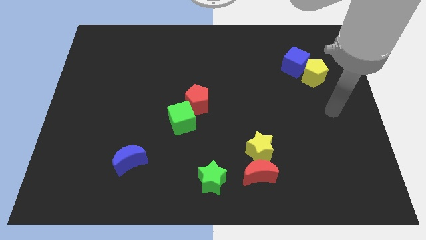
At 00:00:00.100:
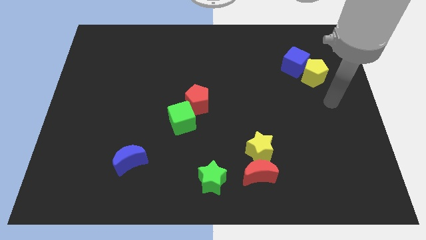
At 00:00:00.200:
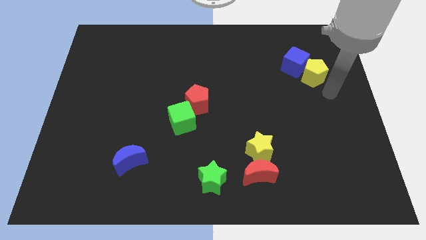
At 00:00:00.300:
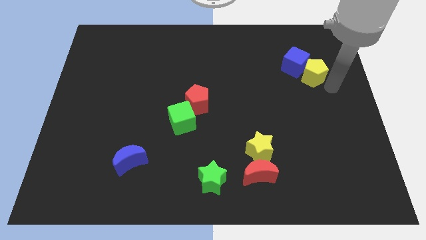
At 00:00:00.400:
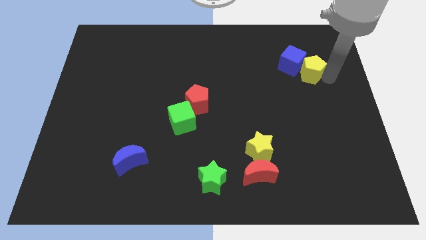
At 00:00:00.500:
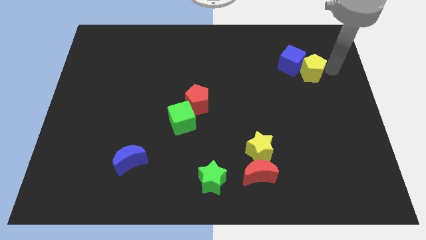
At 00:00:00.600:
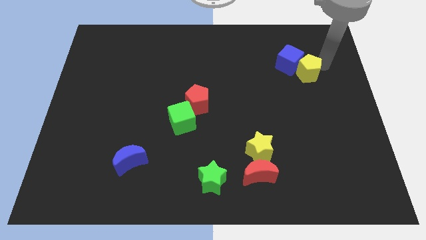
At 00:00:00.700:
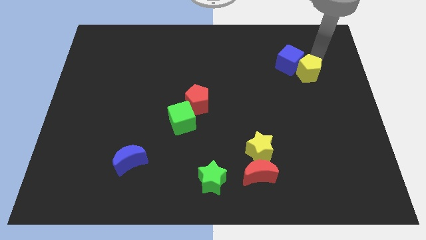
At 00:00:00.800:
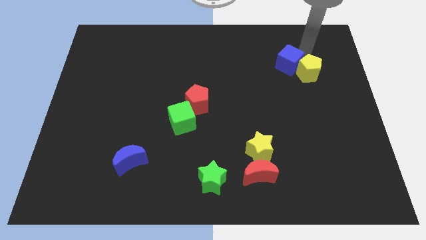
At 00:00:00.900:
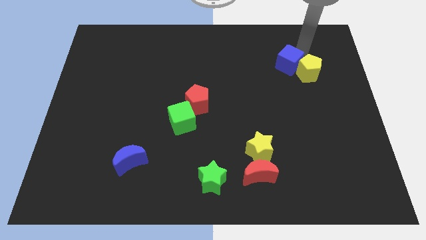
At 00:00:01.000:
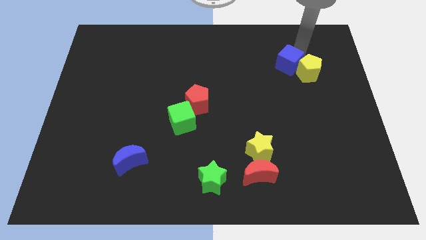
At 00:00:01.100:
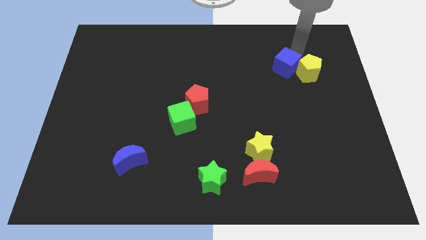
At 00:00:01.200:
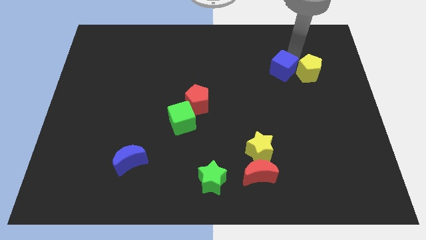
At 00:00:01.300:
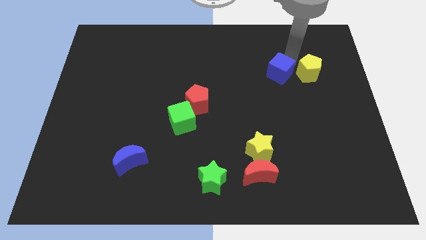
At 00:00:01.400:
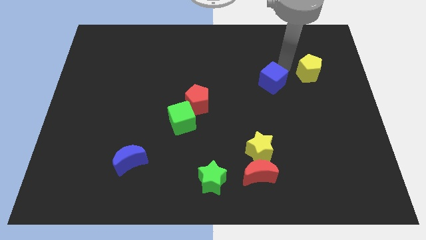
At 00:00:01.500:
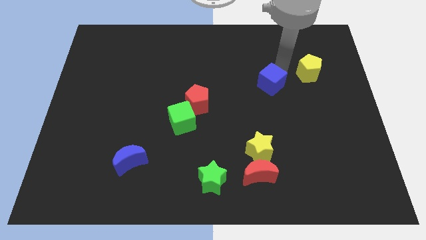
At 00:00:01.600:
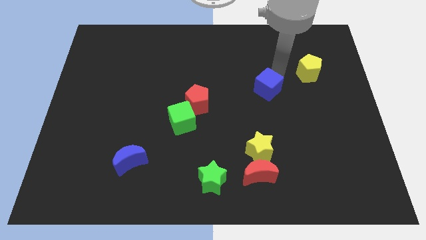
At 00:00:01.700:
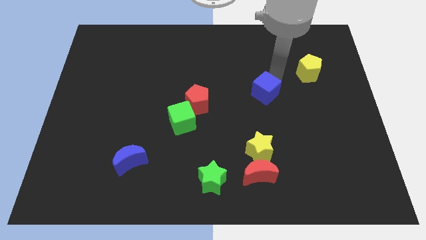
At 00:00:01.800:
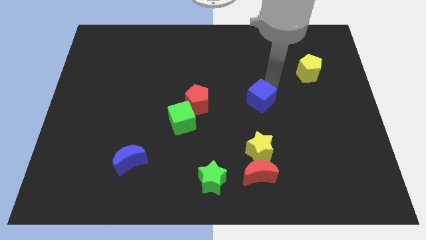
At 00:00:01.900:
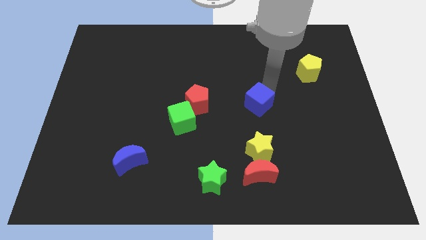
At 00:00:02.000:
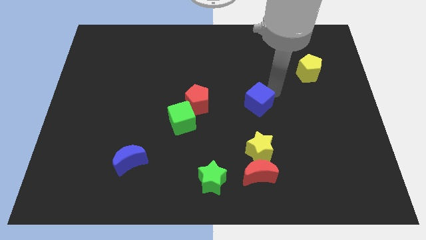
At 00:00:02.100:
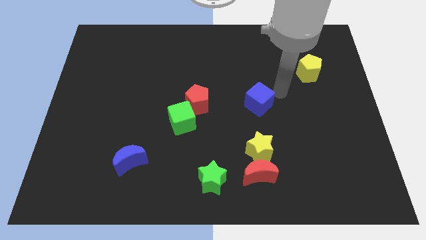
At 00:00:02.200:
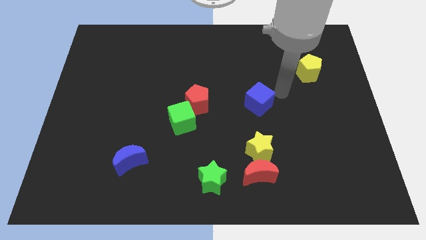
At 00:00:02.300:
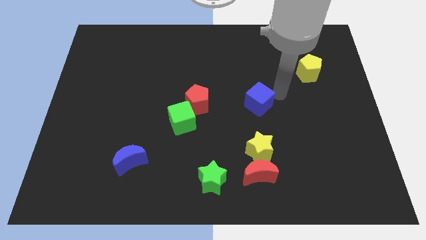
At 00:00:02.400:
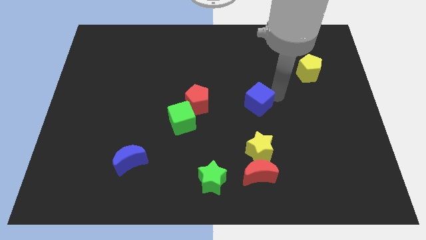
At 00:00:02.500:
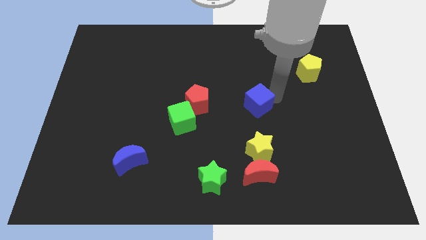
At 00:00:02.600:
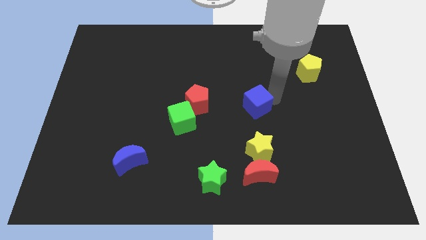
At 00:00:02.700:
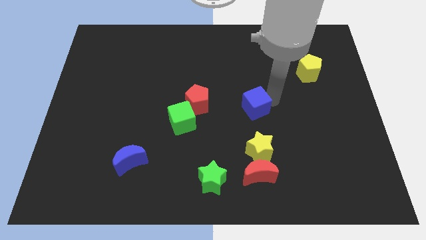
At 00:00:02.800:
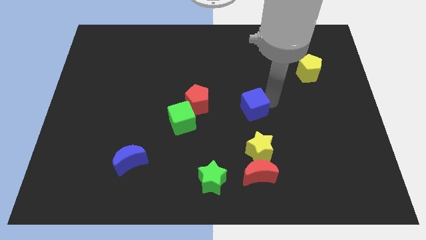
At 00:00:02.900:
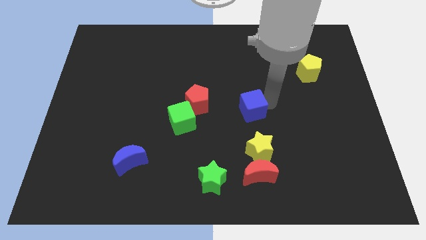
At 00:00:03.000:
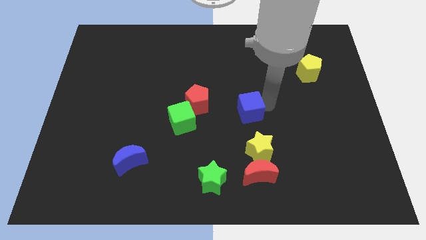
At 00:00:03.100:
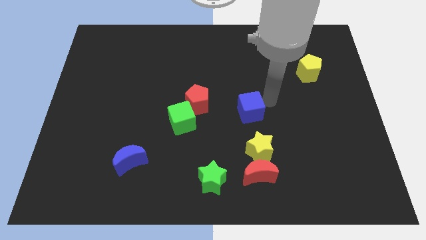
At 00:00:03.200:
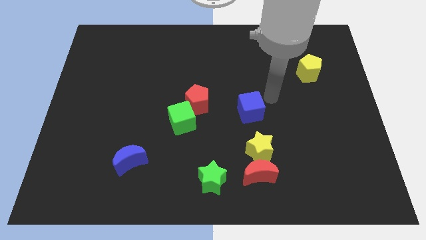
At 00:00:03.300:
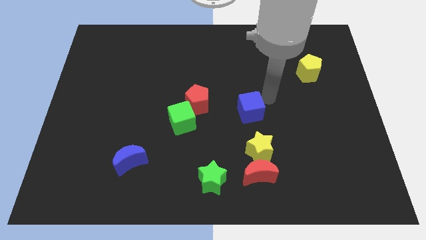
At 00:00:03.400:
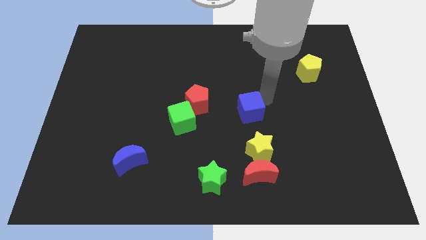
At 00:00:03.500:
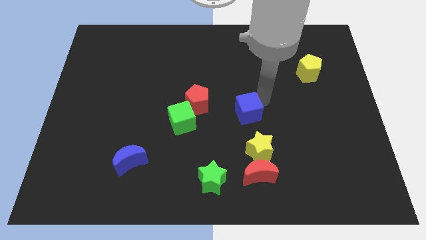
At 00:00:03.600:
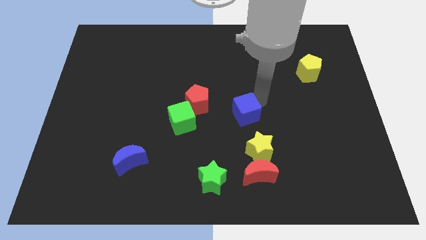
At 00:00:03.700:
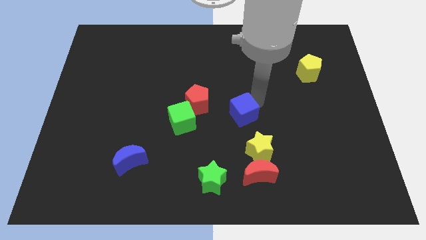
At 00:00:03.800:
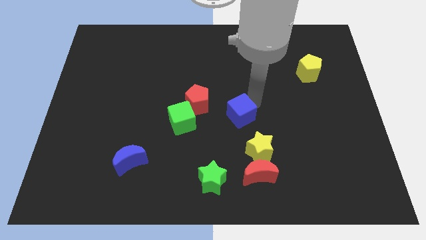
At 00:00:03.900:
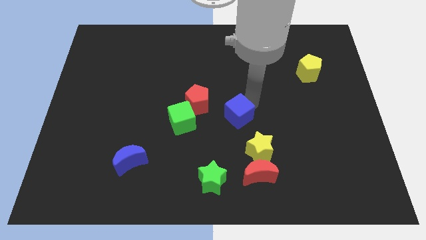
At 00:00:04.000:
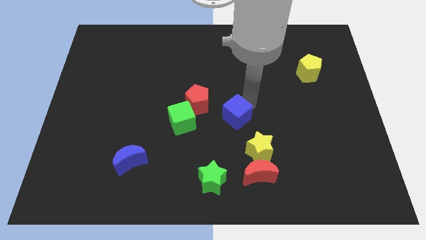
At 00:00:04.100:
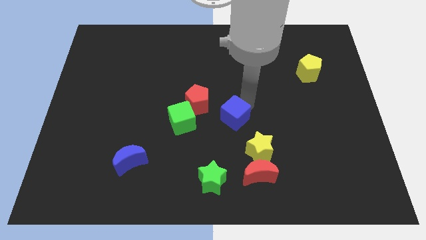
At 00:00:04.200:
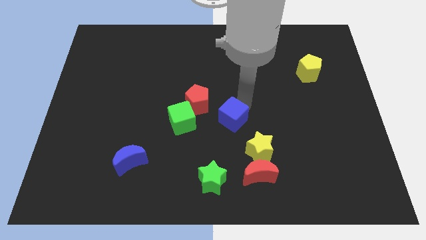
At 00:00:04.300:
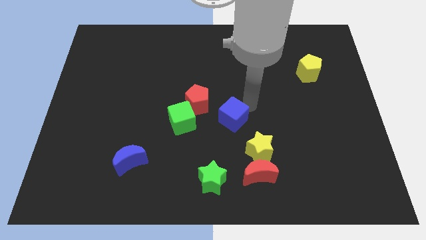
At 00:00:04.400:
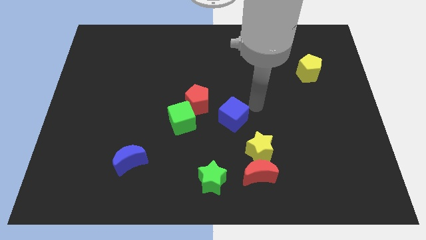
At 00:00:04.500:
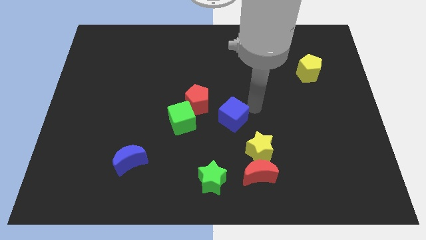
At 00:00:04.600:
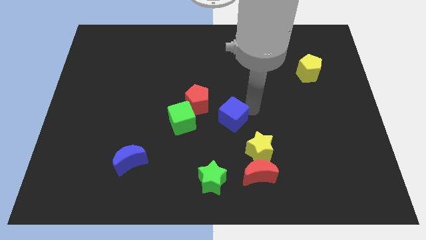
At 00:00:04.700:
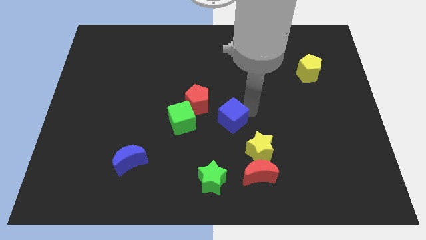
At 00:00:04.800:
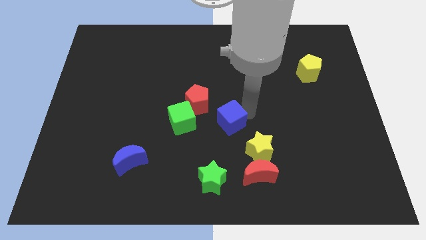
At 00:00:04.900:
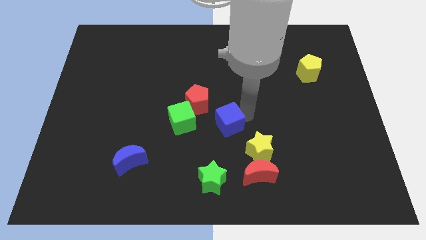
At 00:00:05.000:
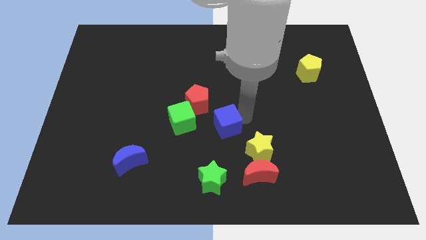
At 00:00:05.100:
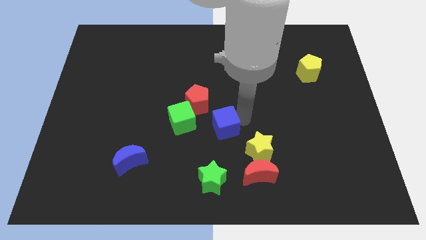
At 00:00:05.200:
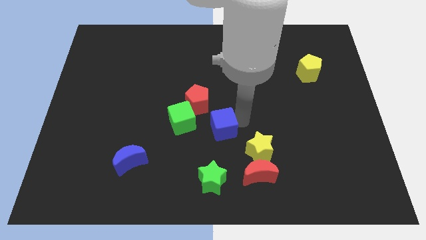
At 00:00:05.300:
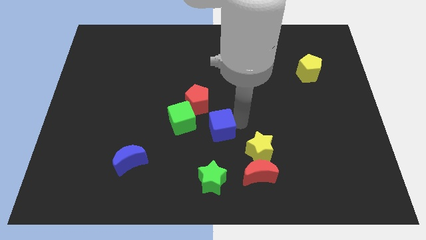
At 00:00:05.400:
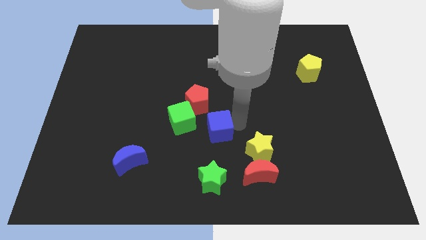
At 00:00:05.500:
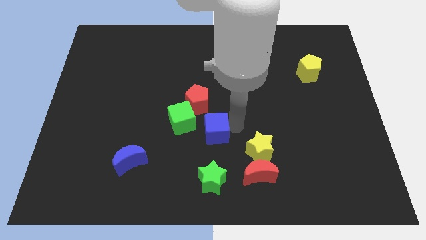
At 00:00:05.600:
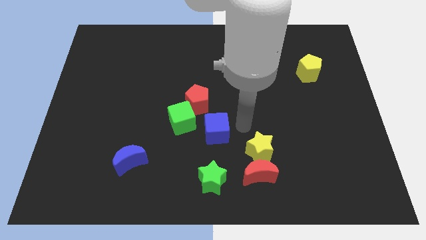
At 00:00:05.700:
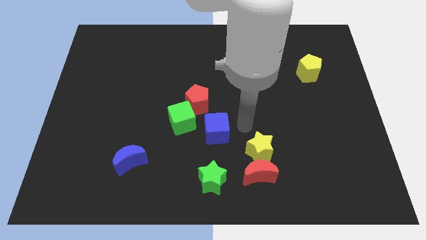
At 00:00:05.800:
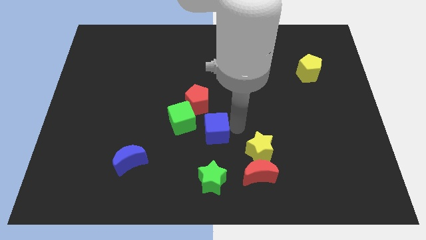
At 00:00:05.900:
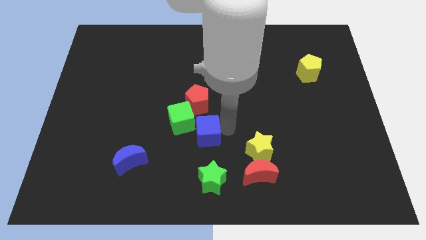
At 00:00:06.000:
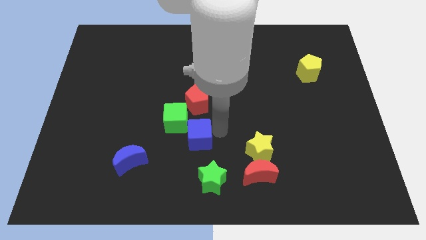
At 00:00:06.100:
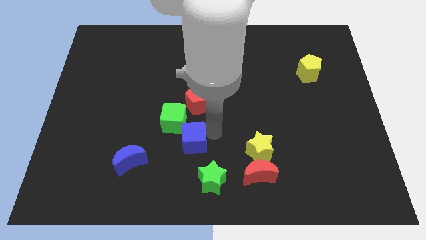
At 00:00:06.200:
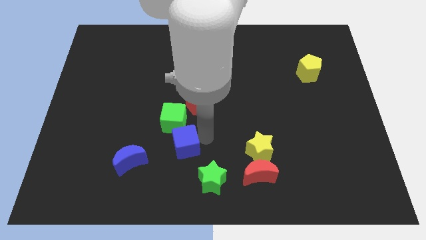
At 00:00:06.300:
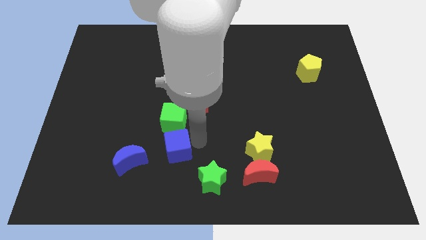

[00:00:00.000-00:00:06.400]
push the blue cube to the top right of the blue moon
